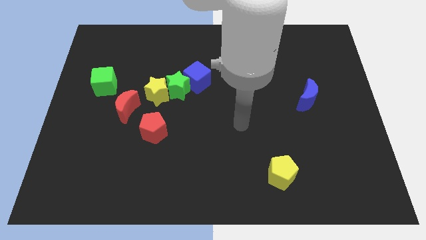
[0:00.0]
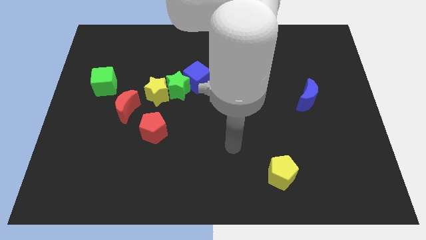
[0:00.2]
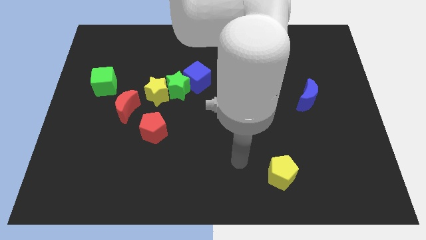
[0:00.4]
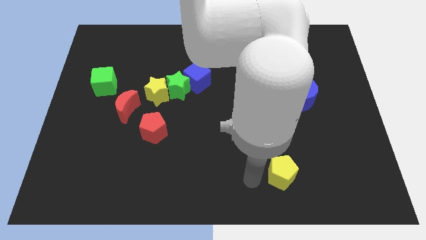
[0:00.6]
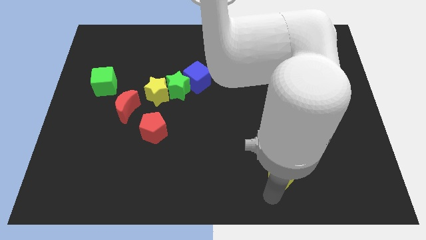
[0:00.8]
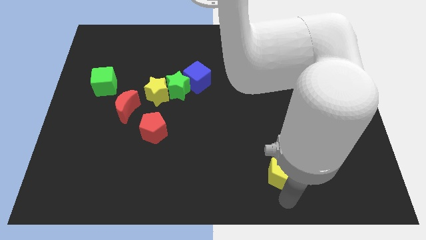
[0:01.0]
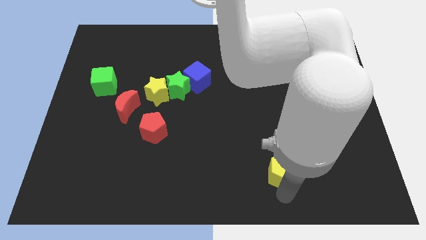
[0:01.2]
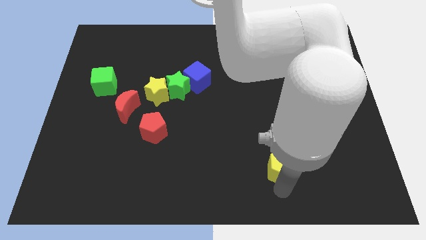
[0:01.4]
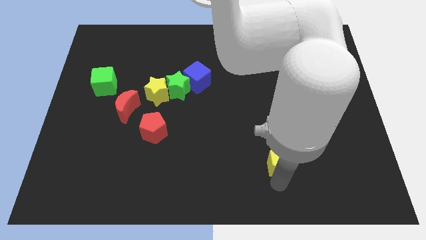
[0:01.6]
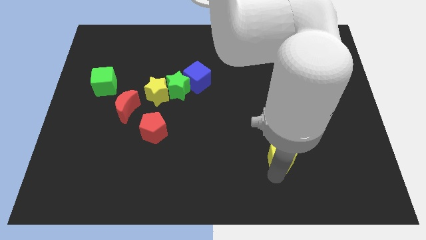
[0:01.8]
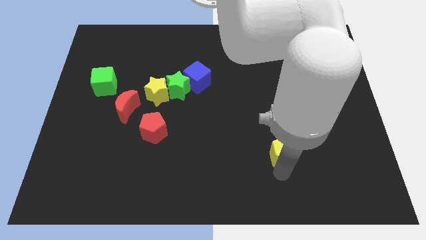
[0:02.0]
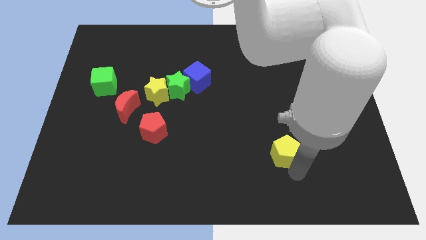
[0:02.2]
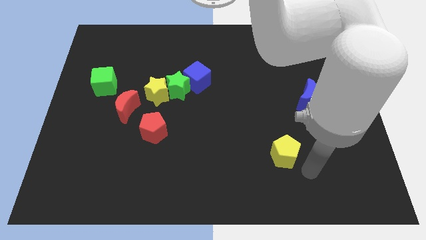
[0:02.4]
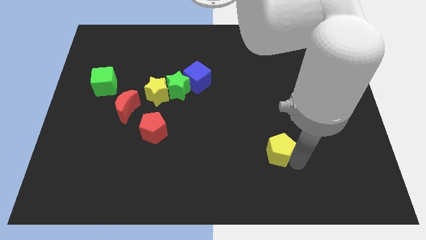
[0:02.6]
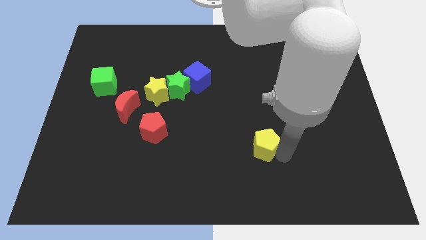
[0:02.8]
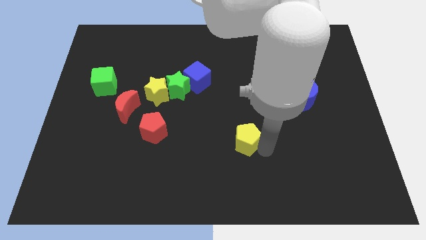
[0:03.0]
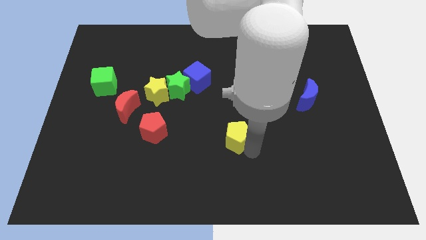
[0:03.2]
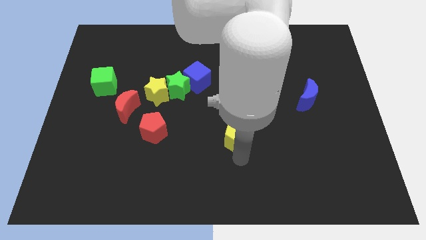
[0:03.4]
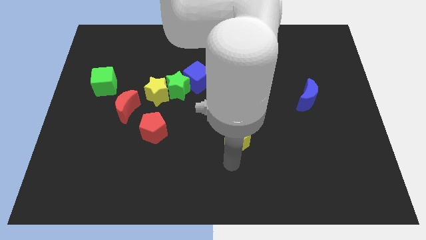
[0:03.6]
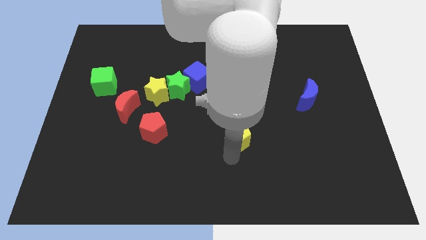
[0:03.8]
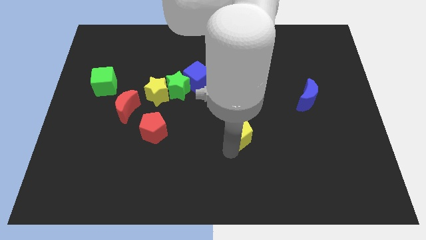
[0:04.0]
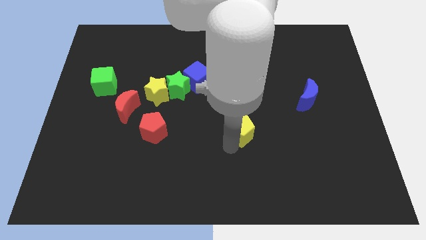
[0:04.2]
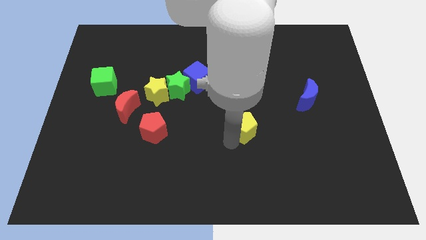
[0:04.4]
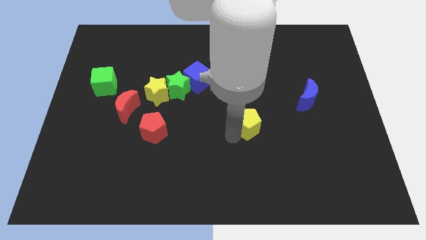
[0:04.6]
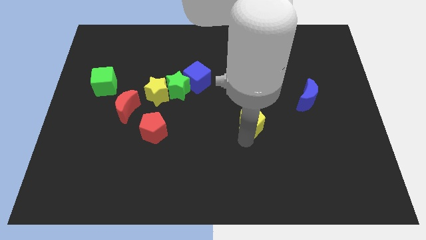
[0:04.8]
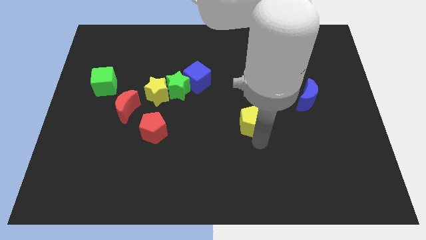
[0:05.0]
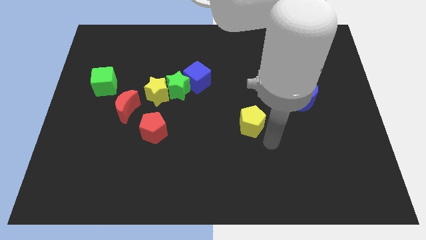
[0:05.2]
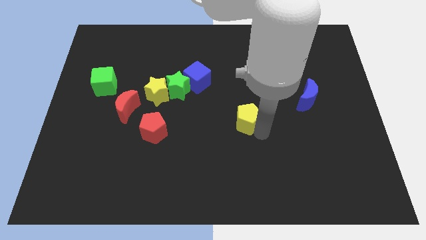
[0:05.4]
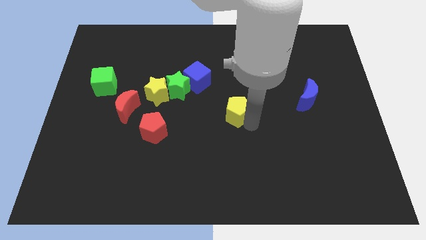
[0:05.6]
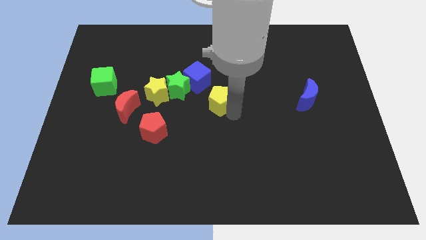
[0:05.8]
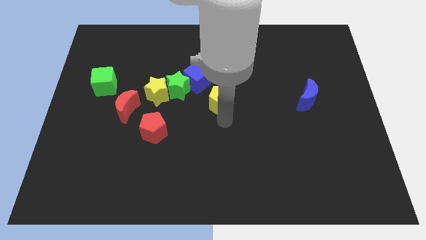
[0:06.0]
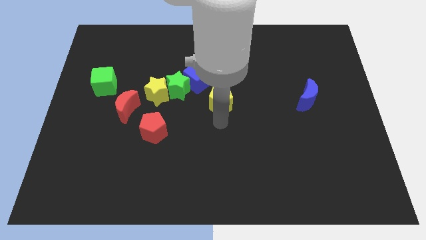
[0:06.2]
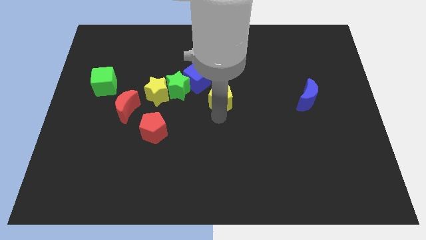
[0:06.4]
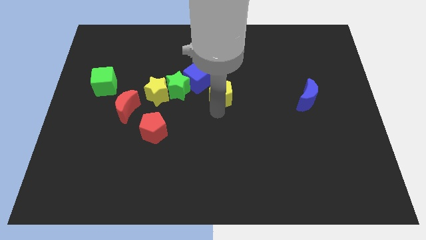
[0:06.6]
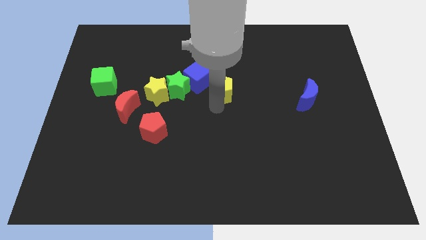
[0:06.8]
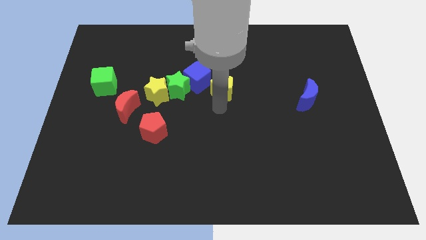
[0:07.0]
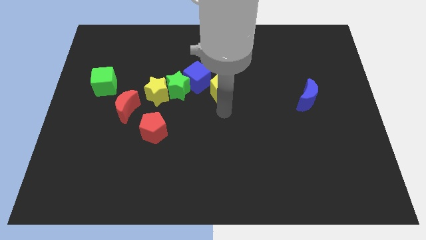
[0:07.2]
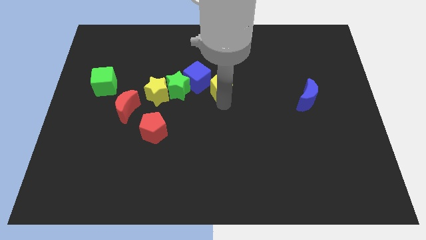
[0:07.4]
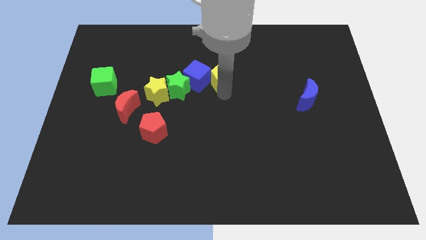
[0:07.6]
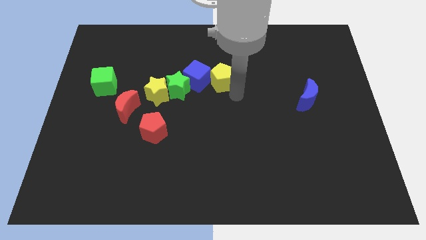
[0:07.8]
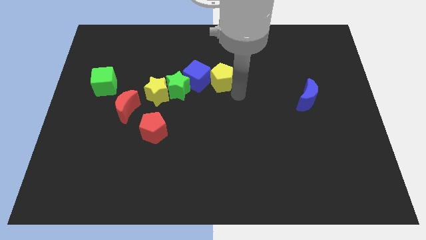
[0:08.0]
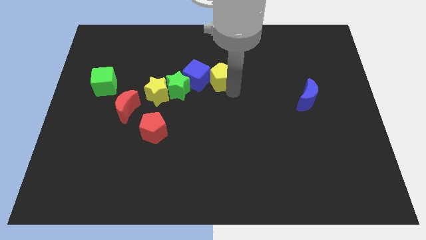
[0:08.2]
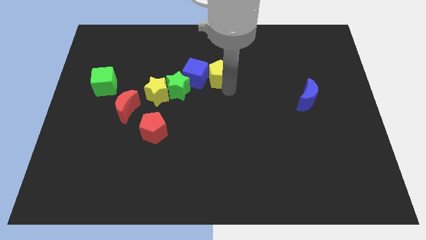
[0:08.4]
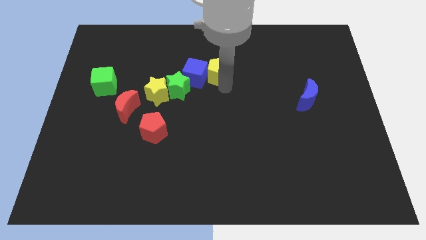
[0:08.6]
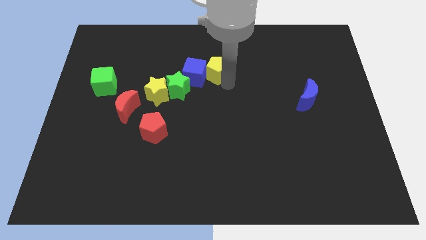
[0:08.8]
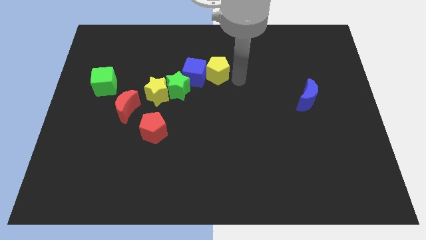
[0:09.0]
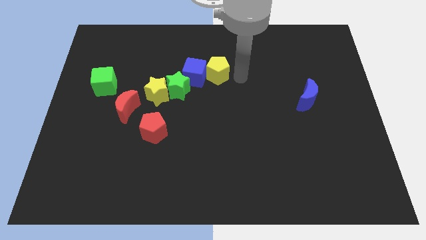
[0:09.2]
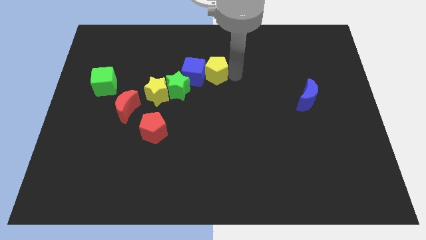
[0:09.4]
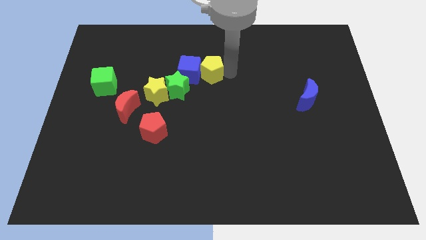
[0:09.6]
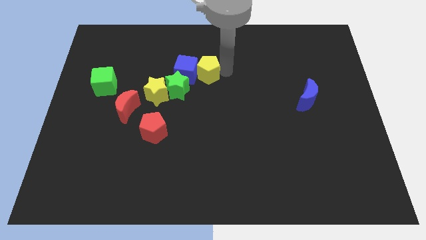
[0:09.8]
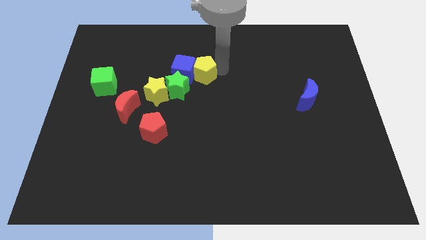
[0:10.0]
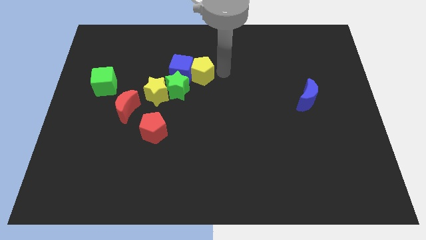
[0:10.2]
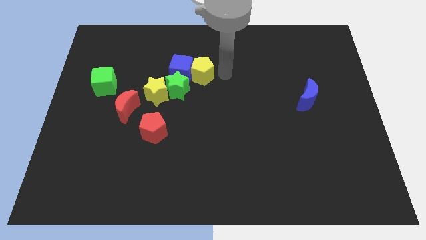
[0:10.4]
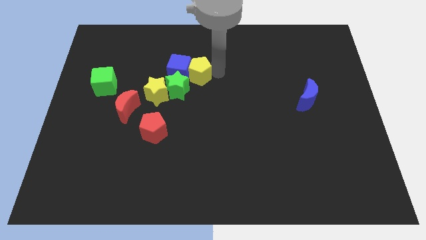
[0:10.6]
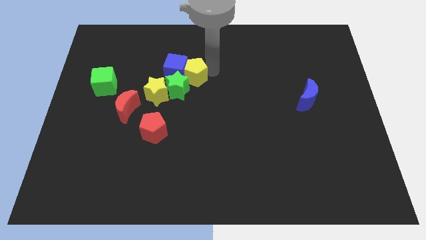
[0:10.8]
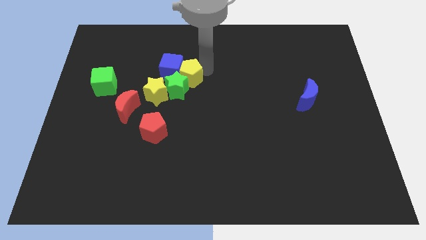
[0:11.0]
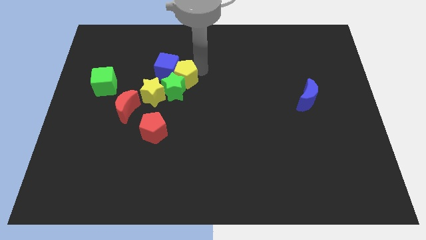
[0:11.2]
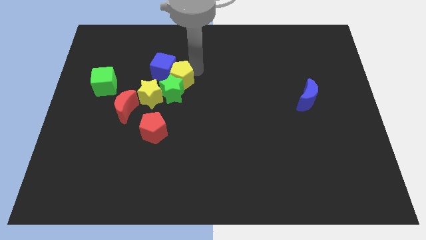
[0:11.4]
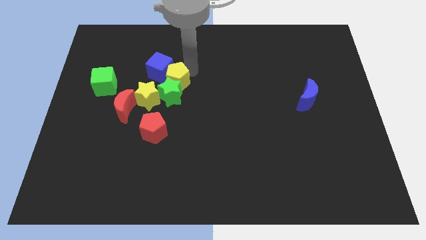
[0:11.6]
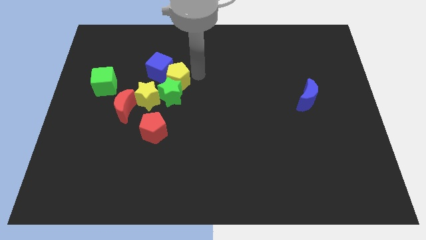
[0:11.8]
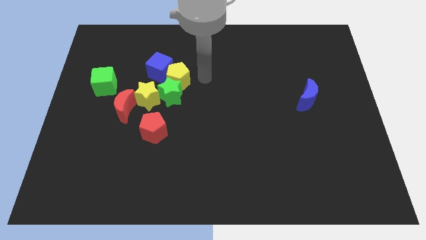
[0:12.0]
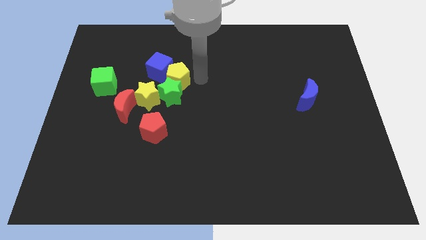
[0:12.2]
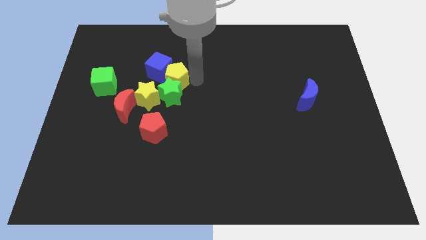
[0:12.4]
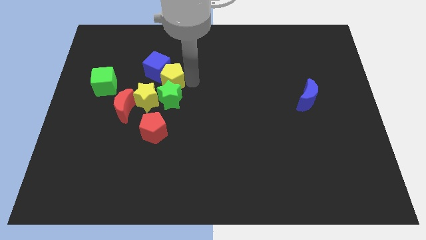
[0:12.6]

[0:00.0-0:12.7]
slide the yellow pentagon to the top of the red pentagon

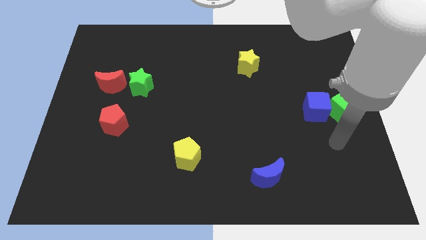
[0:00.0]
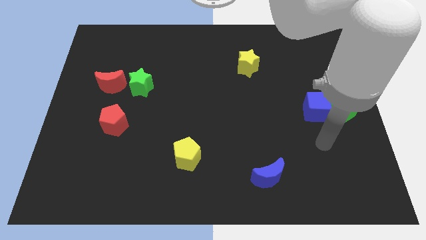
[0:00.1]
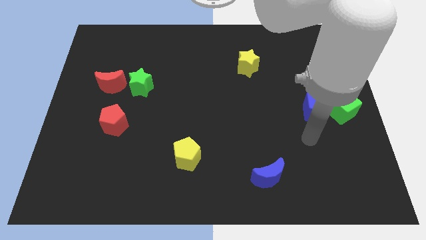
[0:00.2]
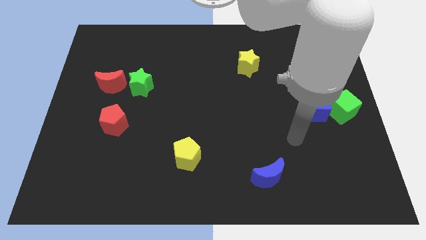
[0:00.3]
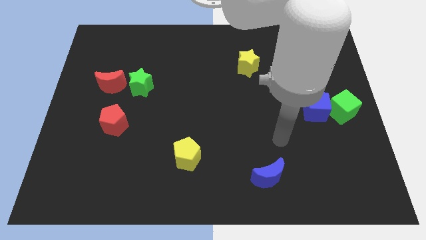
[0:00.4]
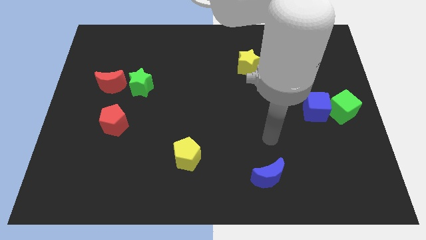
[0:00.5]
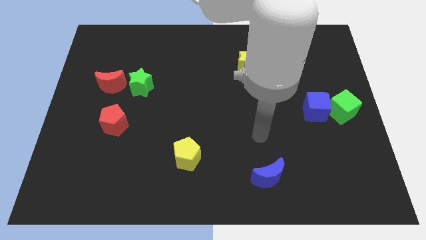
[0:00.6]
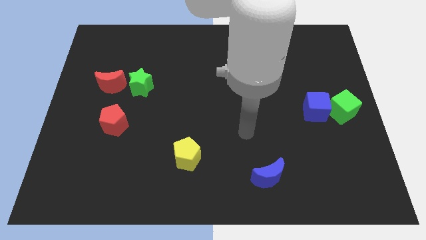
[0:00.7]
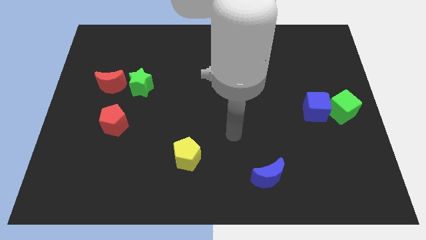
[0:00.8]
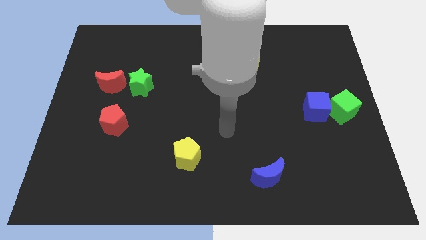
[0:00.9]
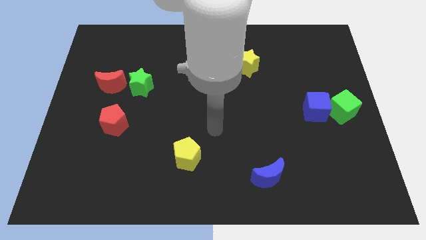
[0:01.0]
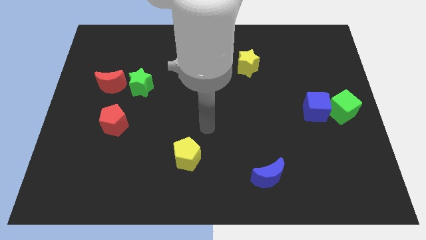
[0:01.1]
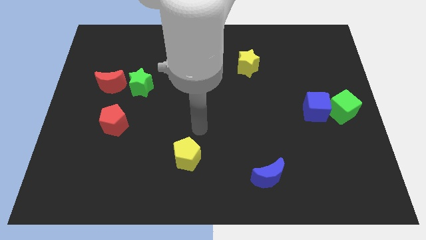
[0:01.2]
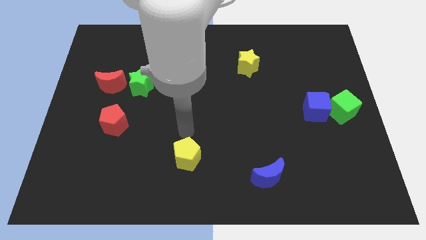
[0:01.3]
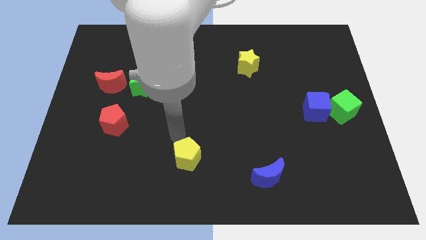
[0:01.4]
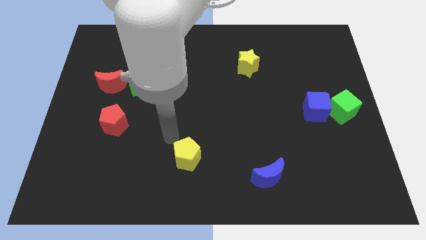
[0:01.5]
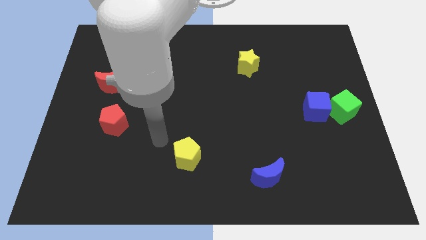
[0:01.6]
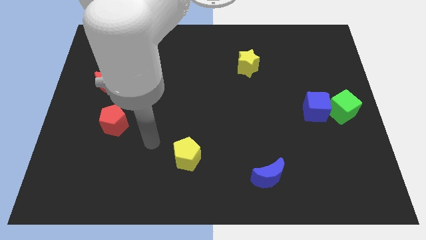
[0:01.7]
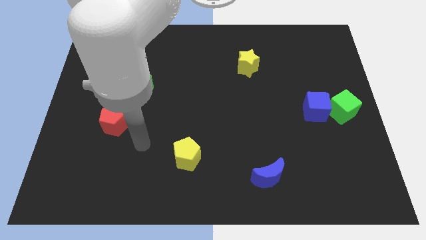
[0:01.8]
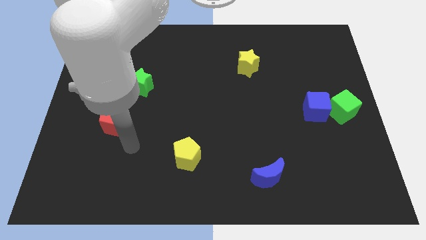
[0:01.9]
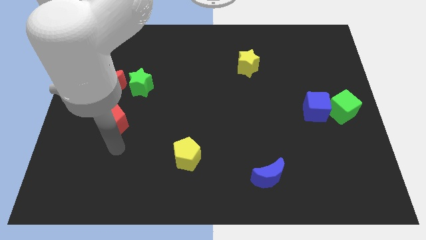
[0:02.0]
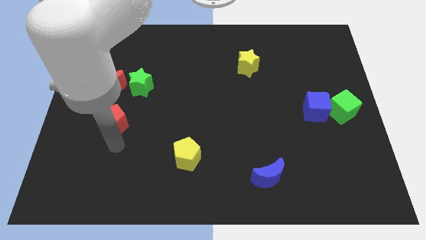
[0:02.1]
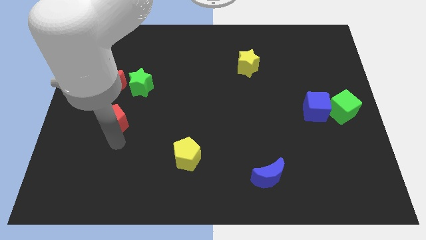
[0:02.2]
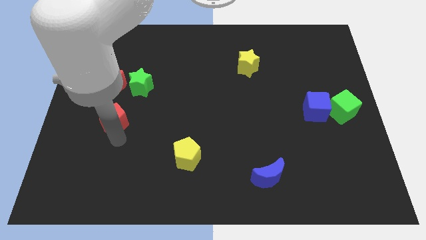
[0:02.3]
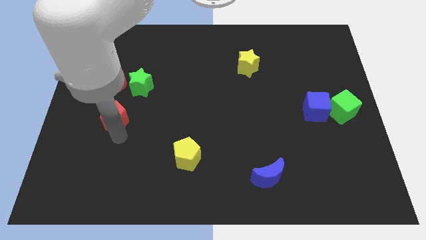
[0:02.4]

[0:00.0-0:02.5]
put the red pentagon to the bottom left side of the green star
